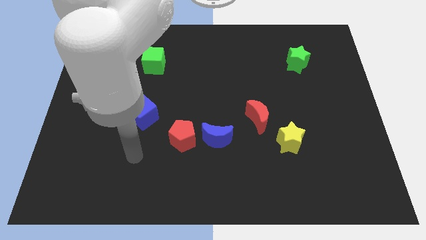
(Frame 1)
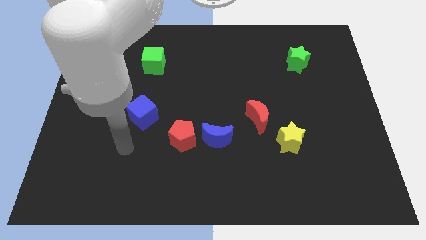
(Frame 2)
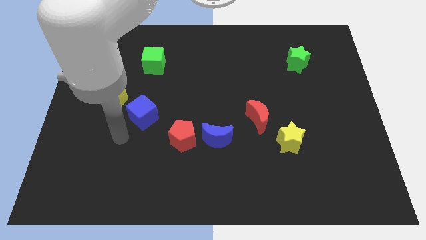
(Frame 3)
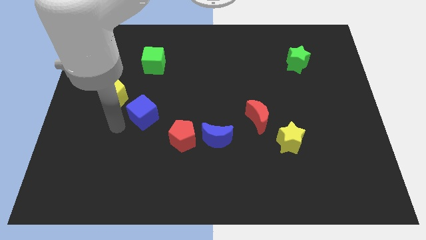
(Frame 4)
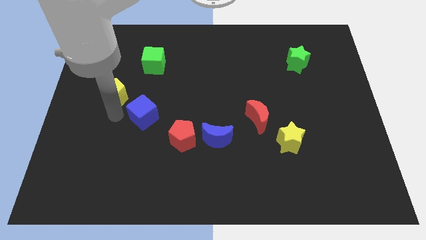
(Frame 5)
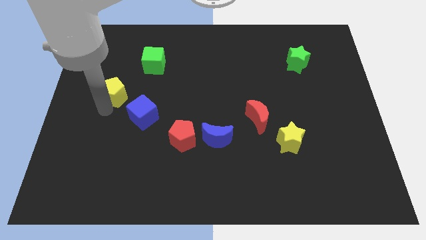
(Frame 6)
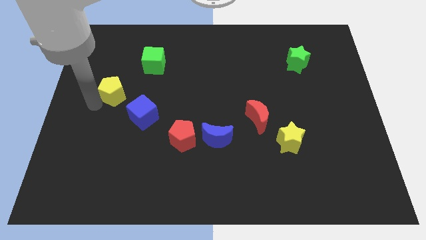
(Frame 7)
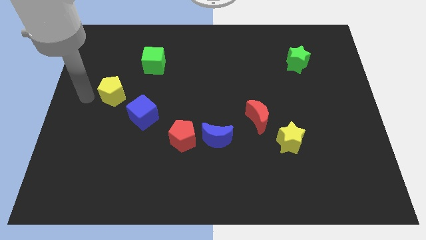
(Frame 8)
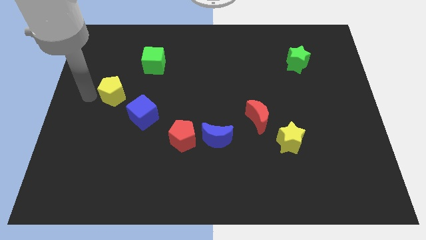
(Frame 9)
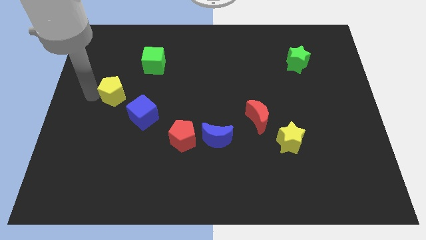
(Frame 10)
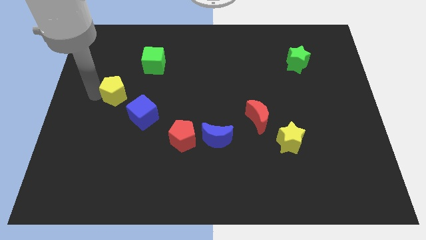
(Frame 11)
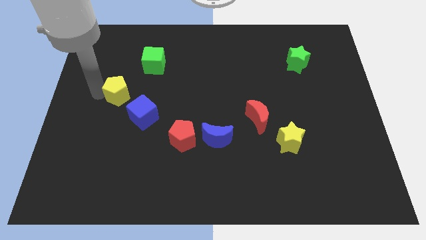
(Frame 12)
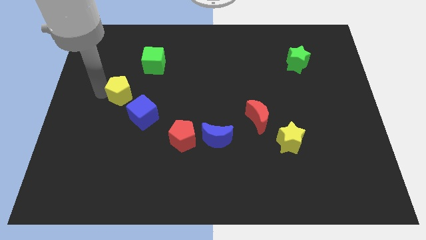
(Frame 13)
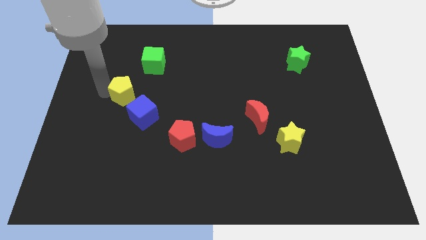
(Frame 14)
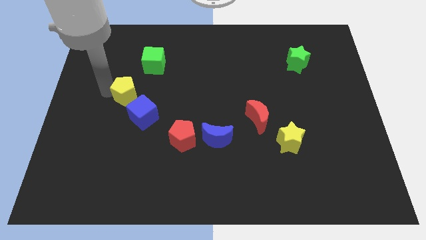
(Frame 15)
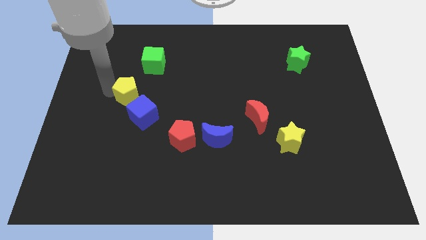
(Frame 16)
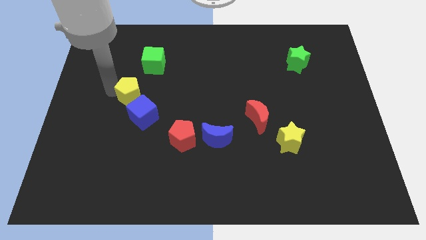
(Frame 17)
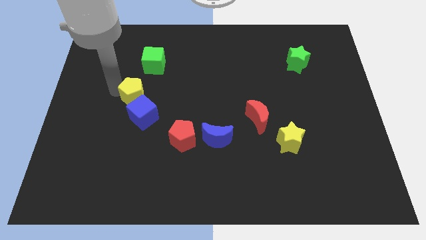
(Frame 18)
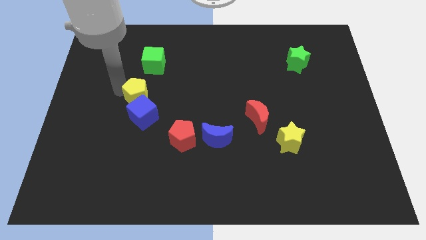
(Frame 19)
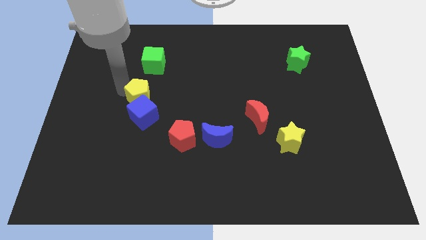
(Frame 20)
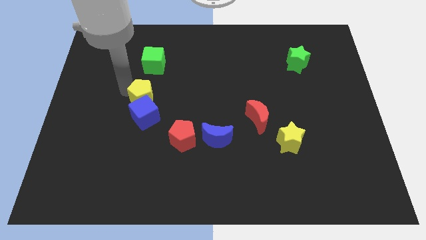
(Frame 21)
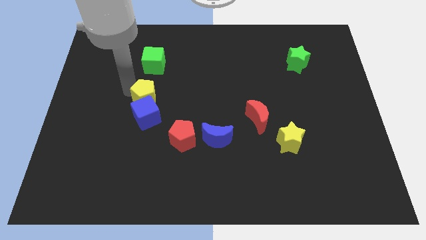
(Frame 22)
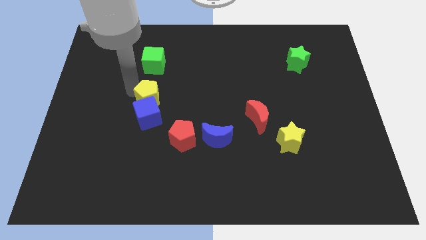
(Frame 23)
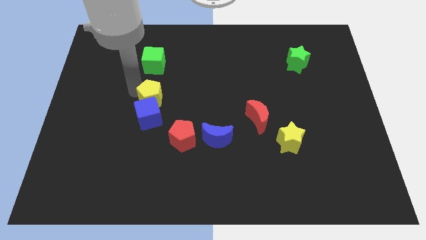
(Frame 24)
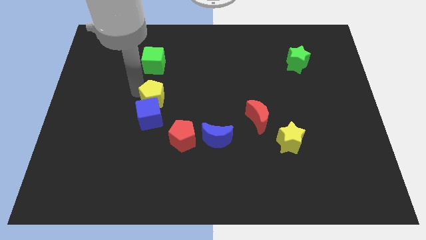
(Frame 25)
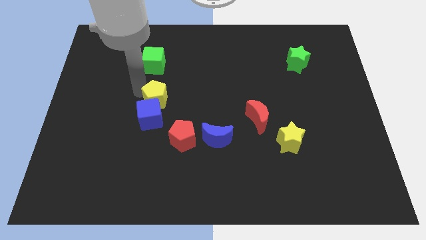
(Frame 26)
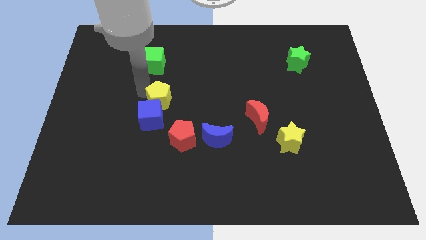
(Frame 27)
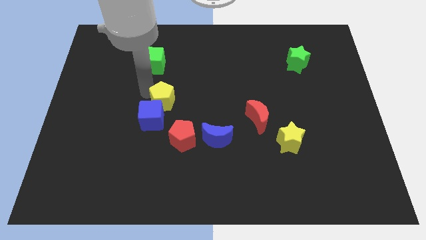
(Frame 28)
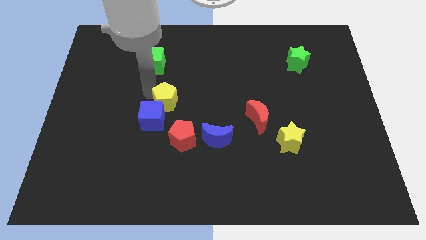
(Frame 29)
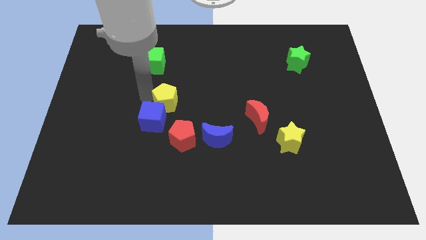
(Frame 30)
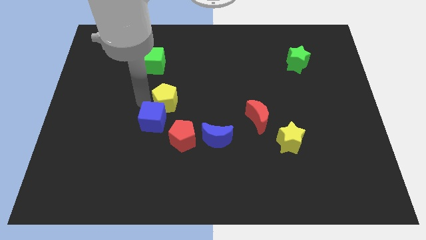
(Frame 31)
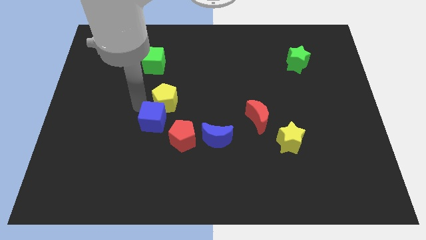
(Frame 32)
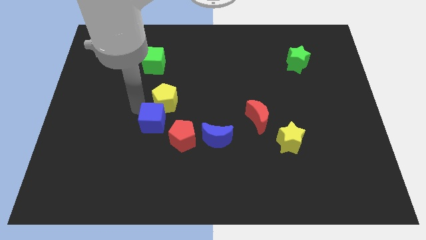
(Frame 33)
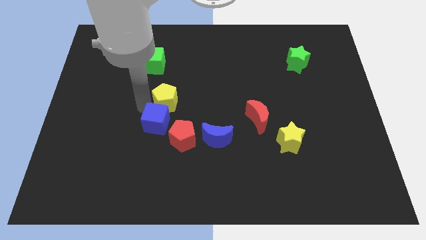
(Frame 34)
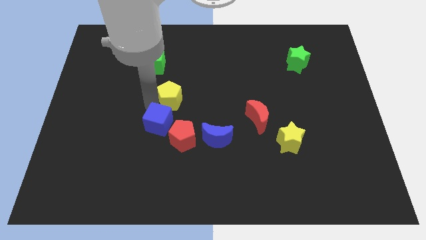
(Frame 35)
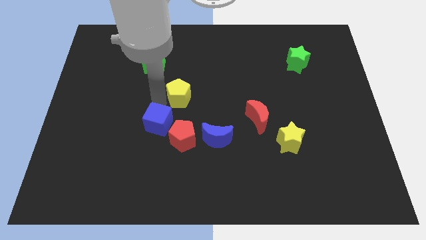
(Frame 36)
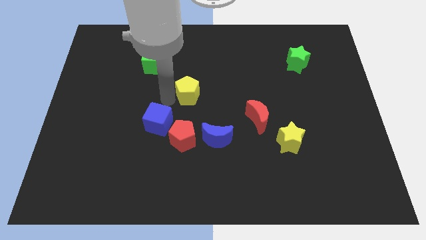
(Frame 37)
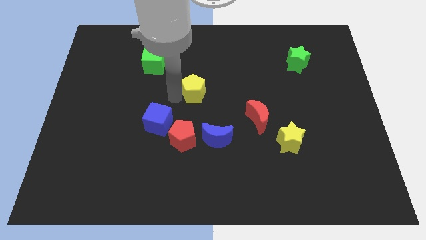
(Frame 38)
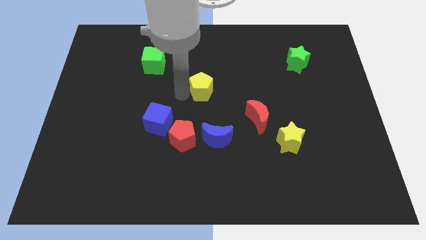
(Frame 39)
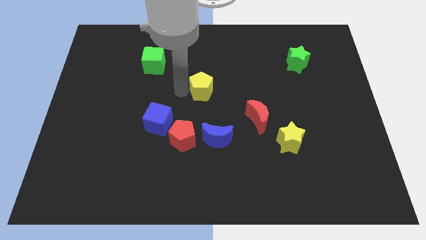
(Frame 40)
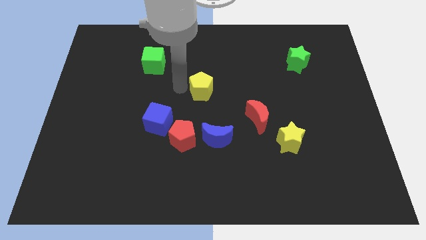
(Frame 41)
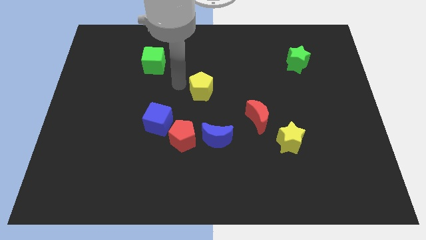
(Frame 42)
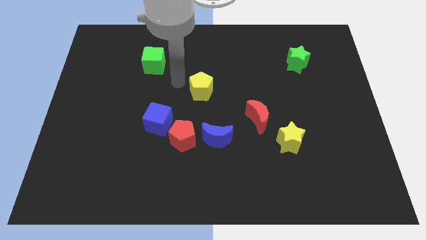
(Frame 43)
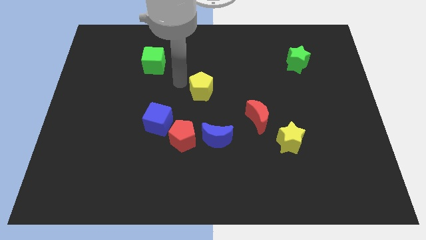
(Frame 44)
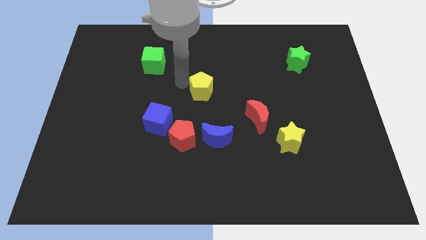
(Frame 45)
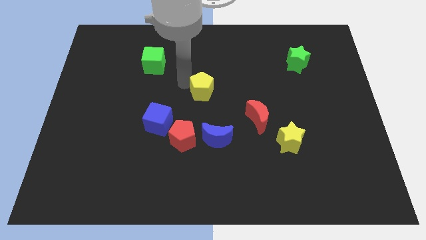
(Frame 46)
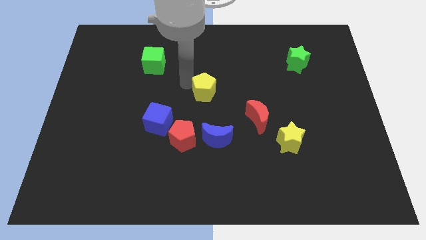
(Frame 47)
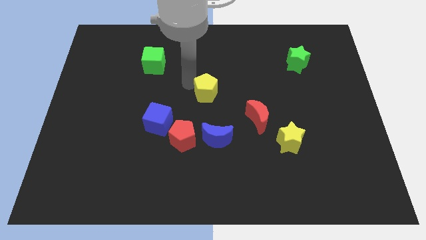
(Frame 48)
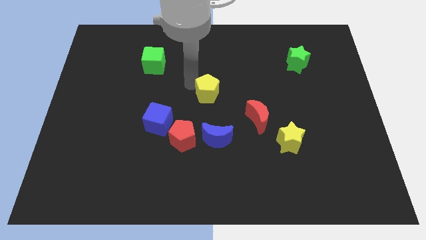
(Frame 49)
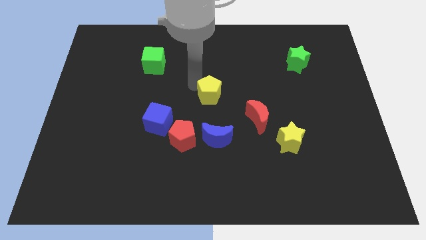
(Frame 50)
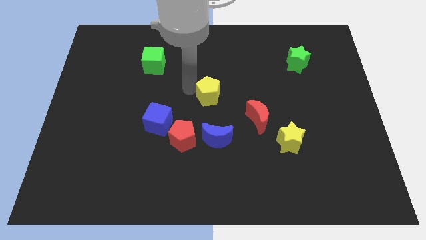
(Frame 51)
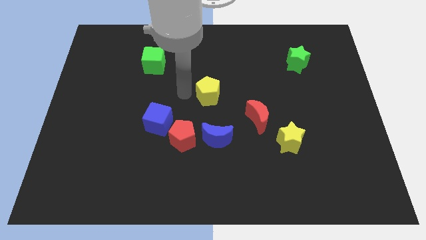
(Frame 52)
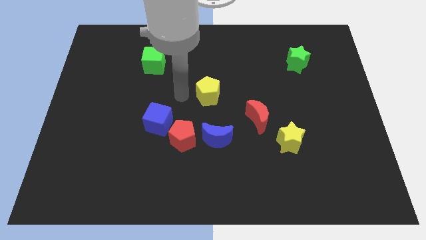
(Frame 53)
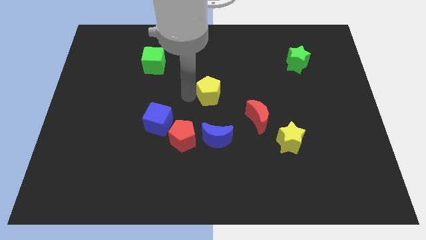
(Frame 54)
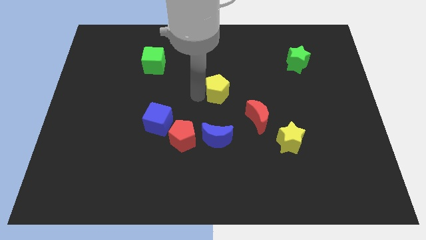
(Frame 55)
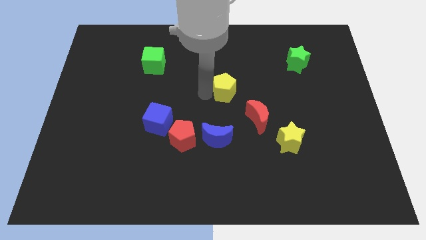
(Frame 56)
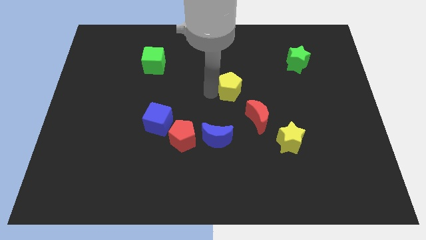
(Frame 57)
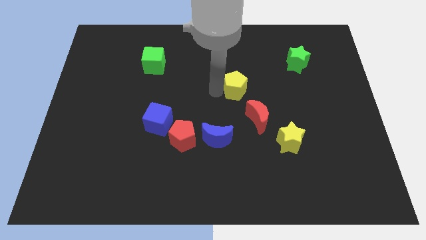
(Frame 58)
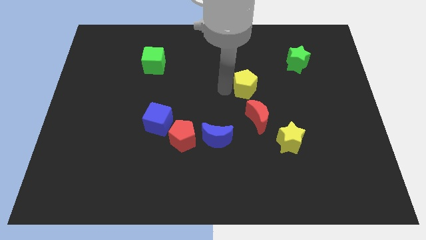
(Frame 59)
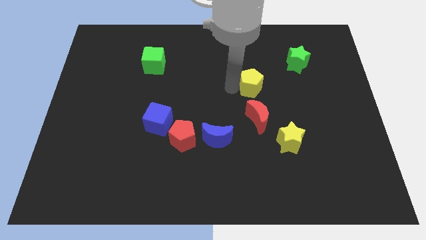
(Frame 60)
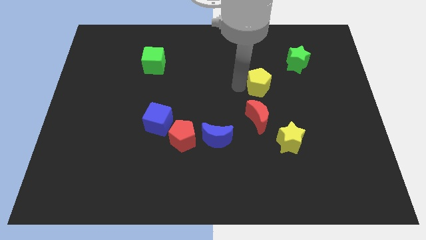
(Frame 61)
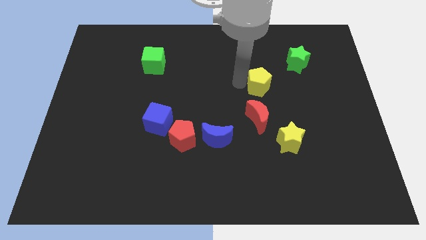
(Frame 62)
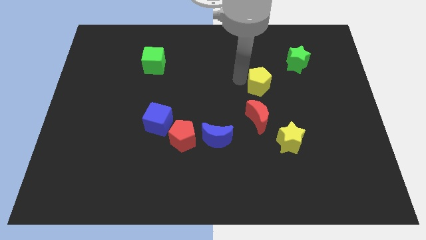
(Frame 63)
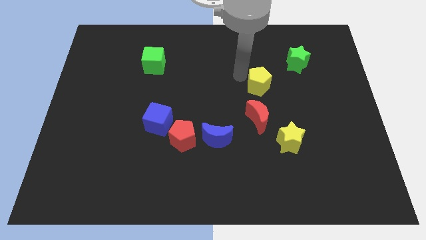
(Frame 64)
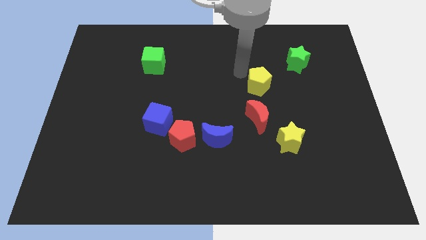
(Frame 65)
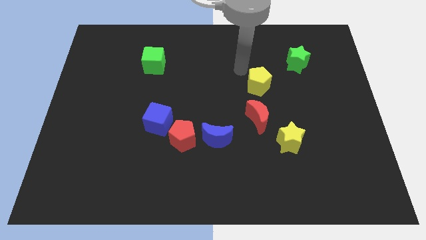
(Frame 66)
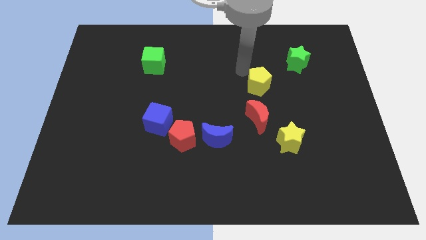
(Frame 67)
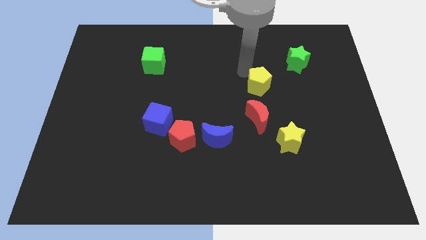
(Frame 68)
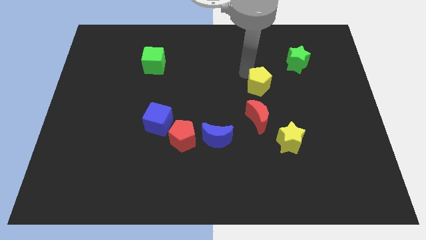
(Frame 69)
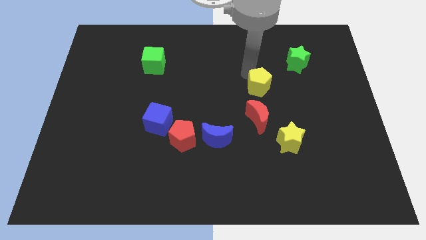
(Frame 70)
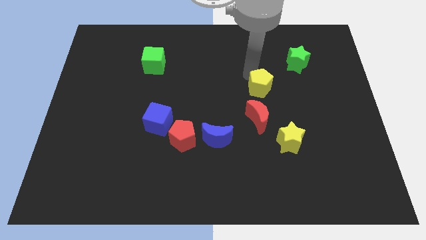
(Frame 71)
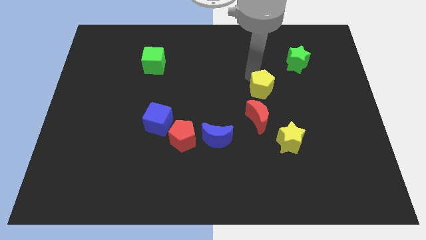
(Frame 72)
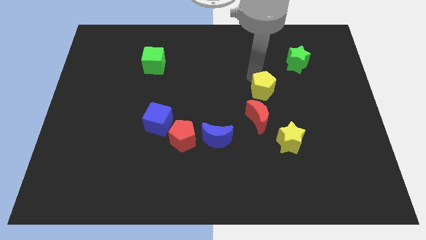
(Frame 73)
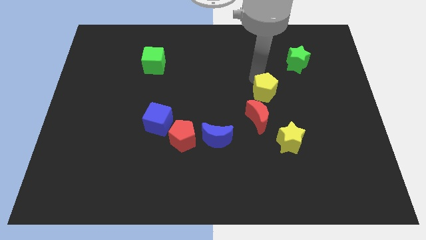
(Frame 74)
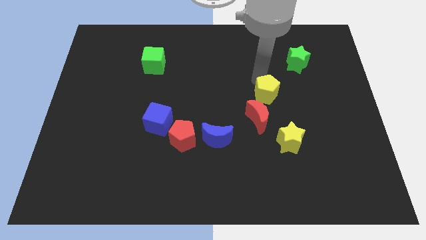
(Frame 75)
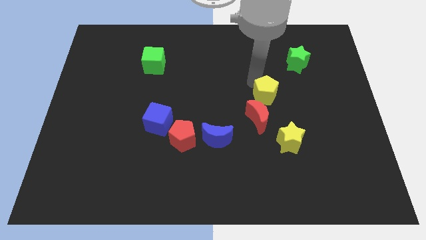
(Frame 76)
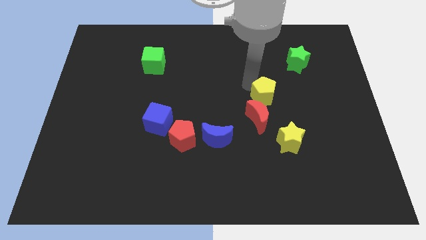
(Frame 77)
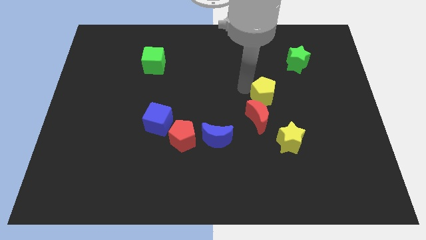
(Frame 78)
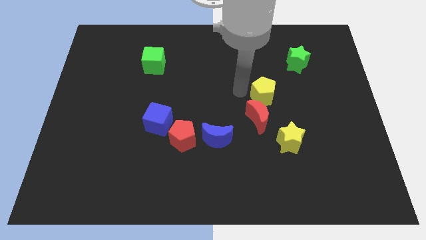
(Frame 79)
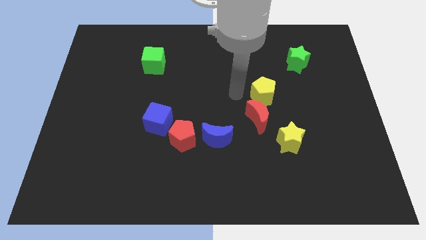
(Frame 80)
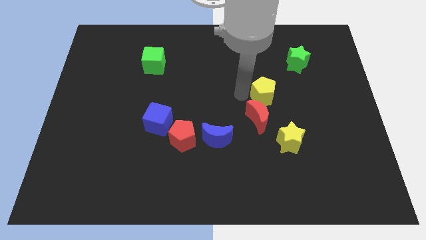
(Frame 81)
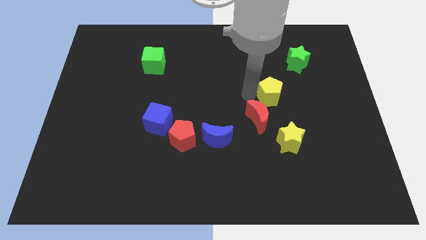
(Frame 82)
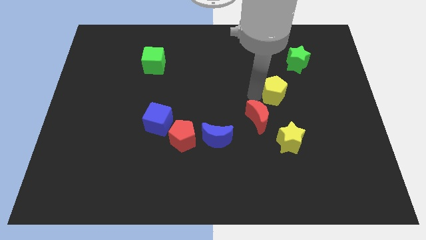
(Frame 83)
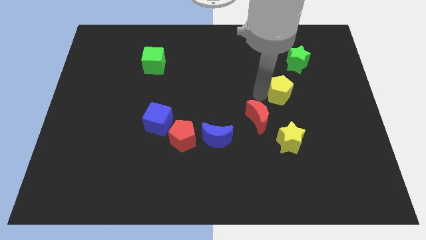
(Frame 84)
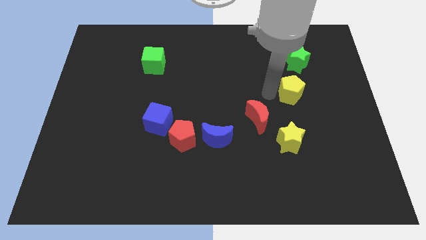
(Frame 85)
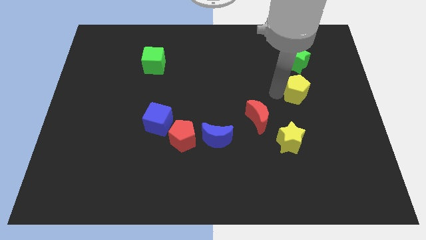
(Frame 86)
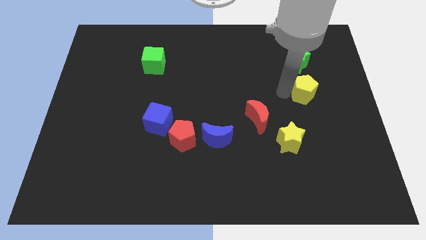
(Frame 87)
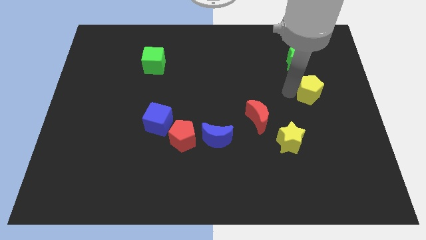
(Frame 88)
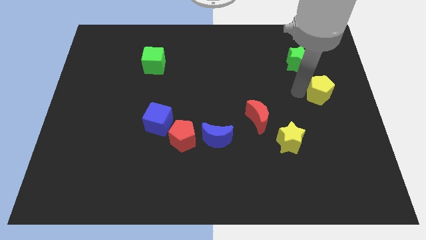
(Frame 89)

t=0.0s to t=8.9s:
move the yellow pentagon to the center right
